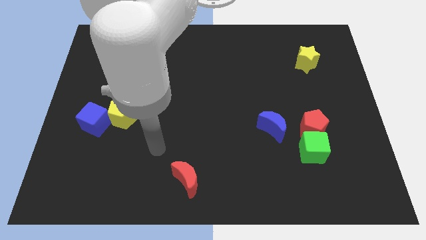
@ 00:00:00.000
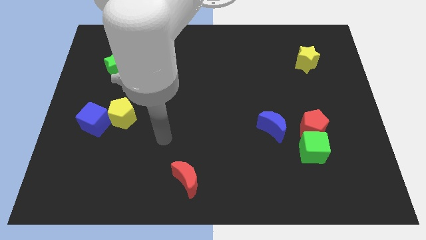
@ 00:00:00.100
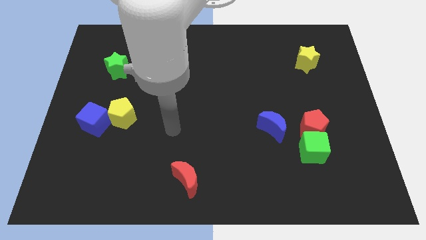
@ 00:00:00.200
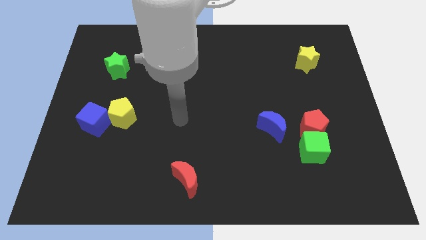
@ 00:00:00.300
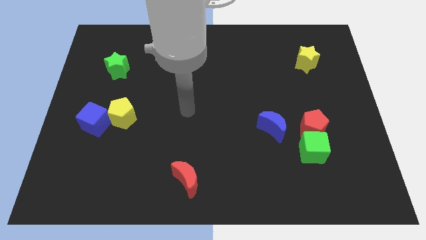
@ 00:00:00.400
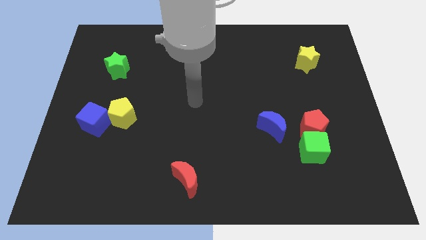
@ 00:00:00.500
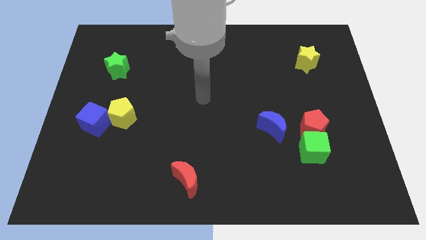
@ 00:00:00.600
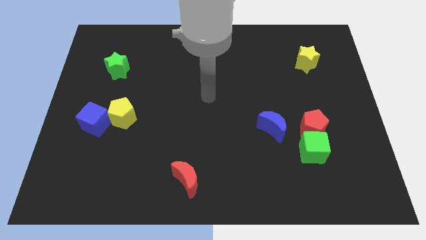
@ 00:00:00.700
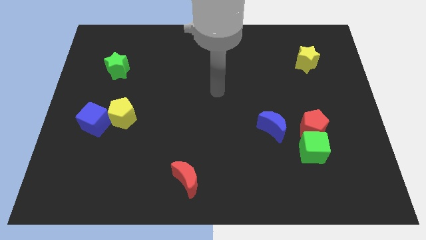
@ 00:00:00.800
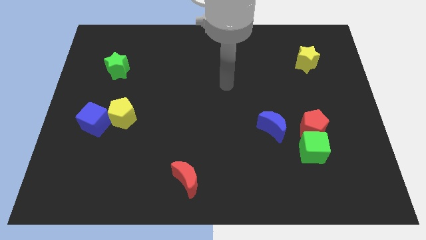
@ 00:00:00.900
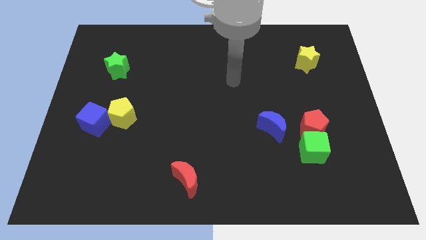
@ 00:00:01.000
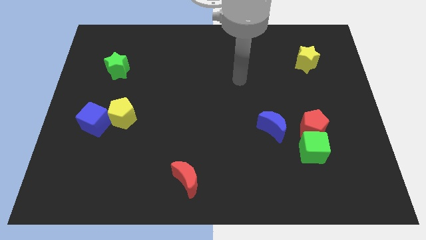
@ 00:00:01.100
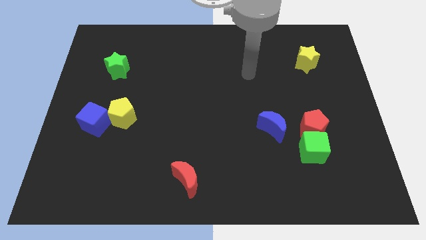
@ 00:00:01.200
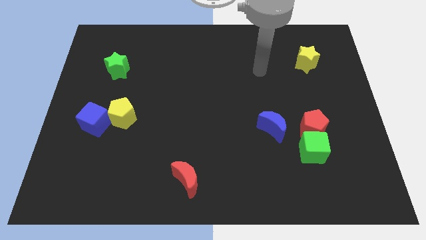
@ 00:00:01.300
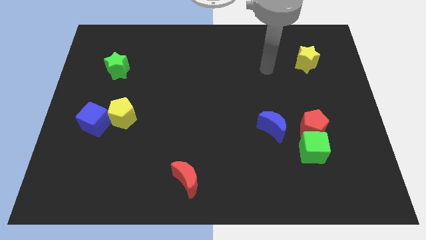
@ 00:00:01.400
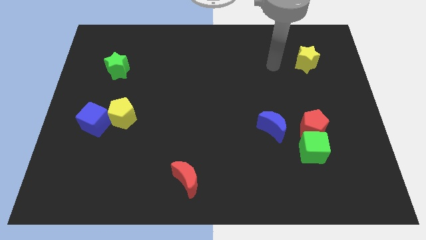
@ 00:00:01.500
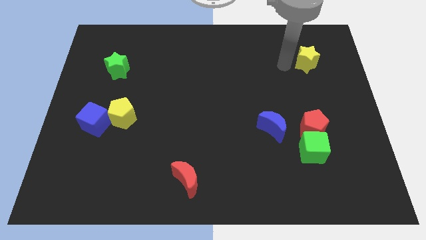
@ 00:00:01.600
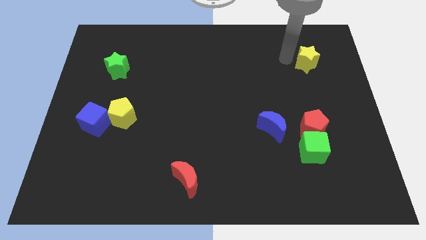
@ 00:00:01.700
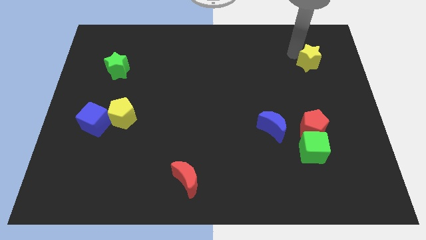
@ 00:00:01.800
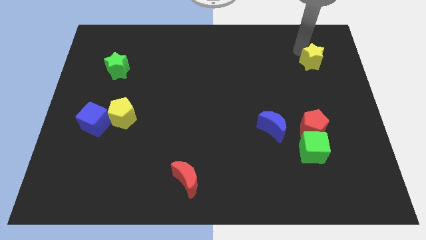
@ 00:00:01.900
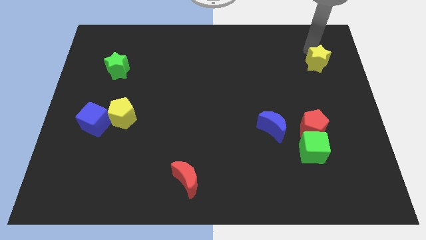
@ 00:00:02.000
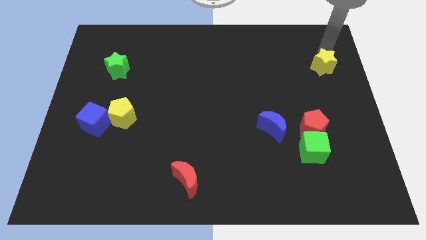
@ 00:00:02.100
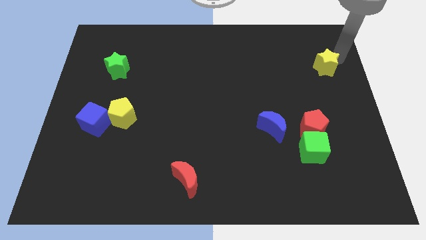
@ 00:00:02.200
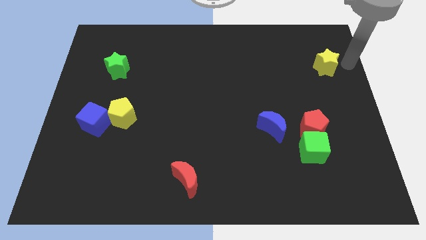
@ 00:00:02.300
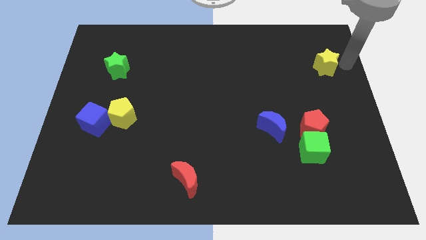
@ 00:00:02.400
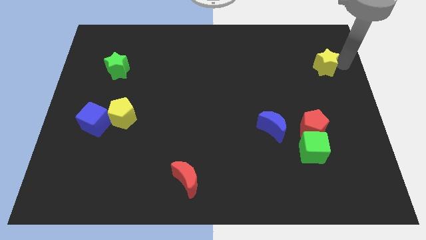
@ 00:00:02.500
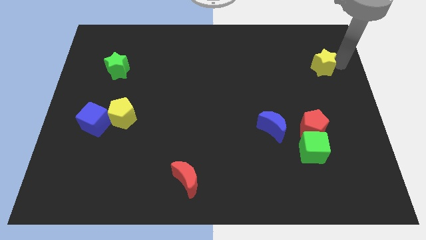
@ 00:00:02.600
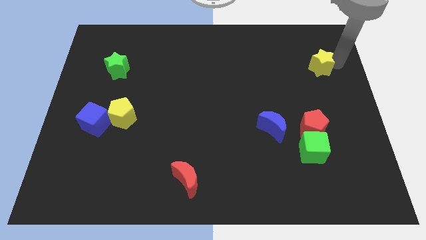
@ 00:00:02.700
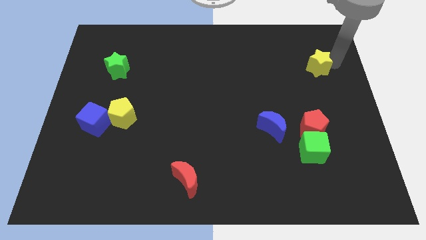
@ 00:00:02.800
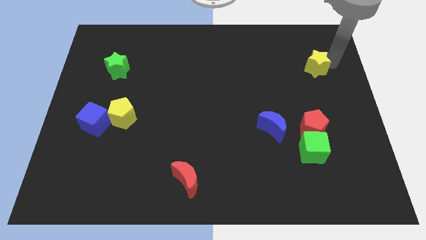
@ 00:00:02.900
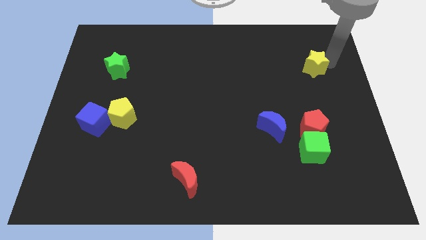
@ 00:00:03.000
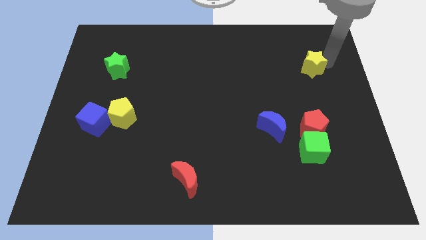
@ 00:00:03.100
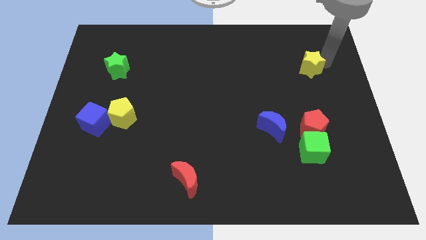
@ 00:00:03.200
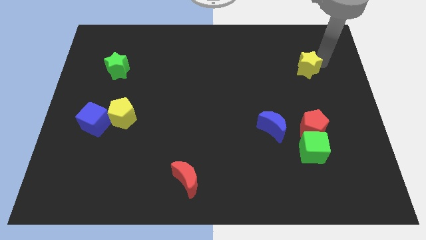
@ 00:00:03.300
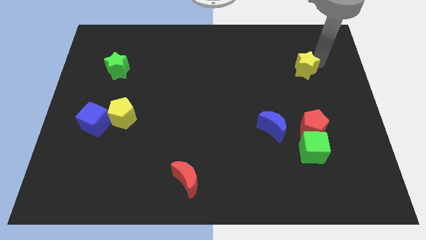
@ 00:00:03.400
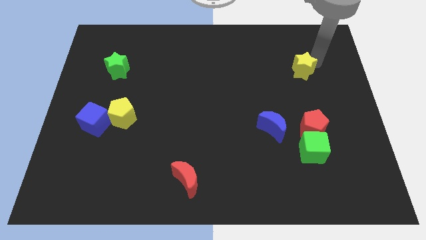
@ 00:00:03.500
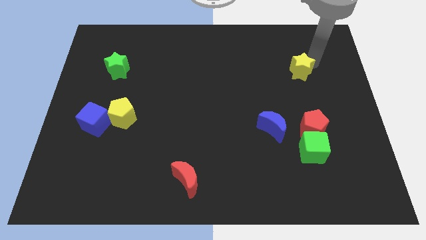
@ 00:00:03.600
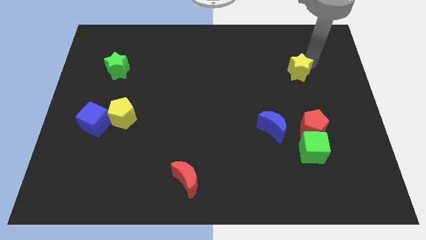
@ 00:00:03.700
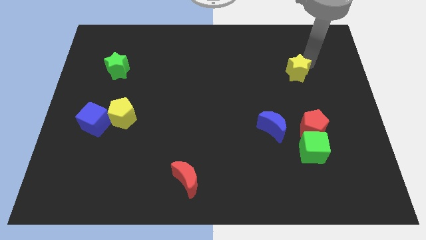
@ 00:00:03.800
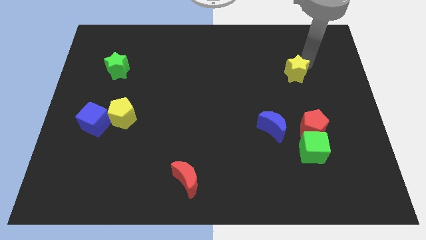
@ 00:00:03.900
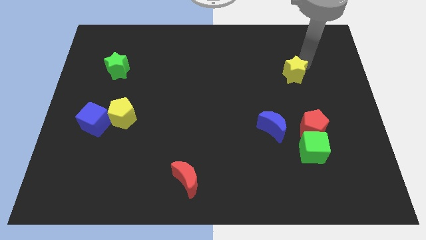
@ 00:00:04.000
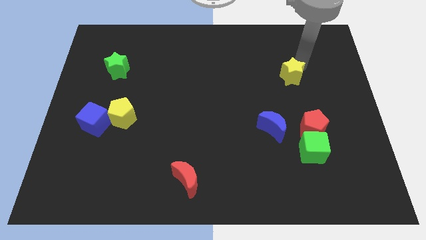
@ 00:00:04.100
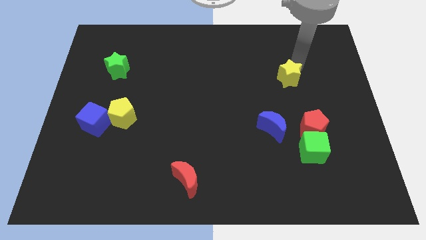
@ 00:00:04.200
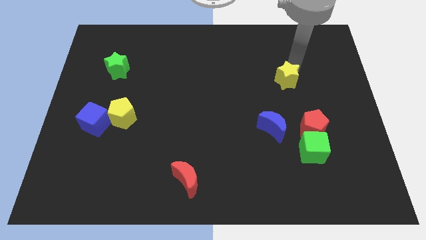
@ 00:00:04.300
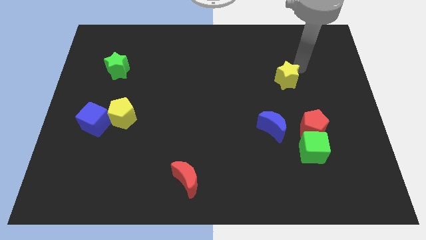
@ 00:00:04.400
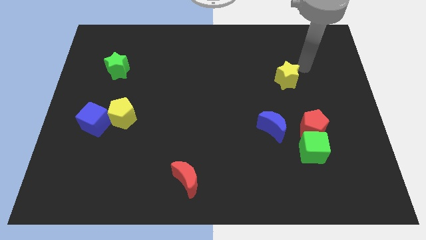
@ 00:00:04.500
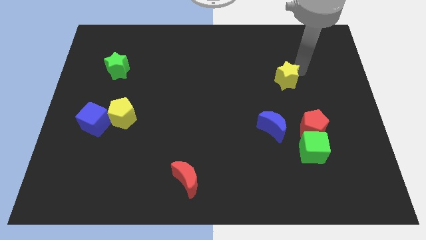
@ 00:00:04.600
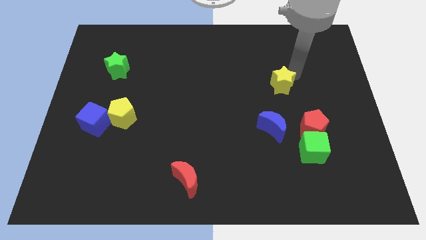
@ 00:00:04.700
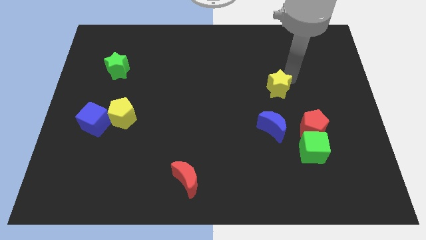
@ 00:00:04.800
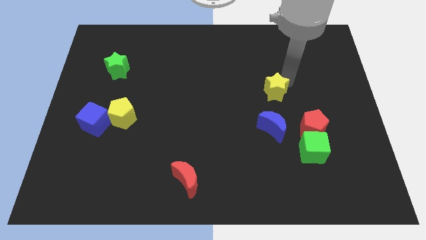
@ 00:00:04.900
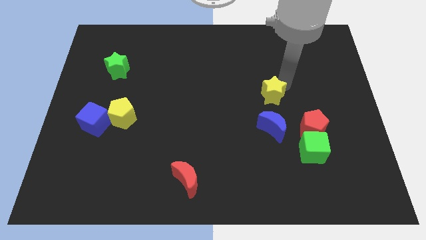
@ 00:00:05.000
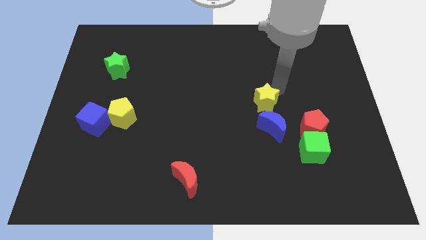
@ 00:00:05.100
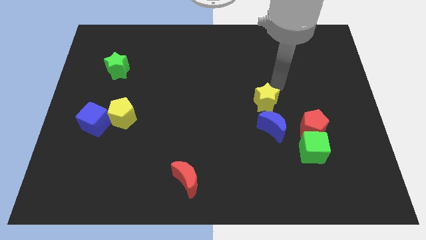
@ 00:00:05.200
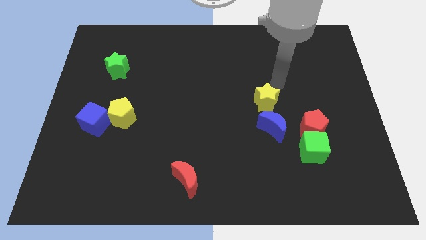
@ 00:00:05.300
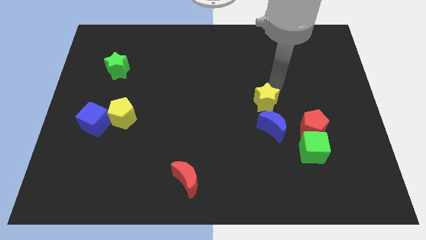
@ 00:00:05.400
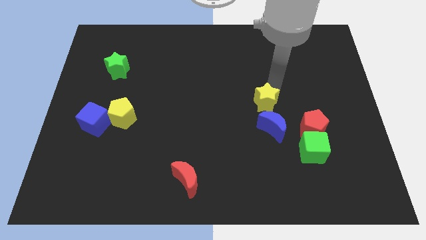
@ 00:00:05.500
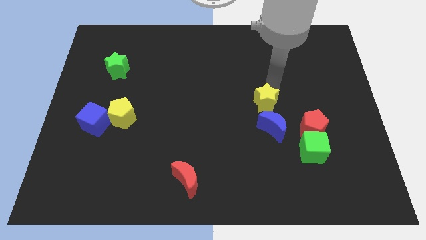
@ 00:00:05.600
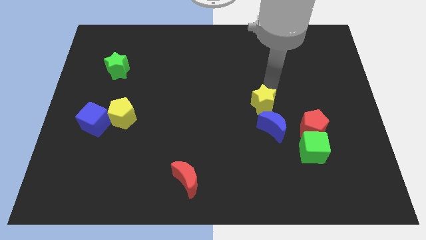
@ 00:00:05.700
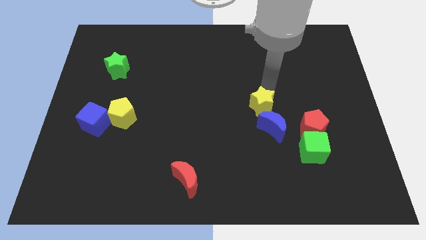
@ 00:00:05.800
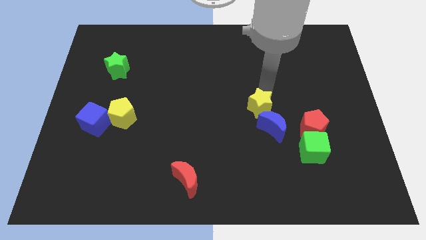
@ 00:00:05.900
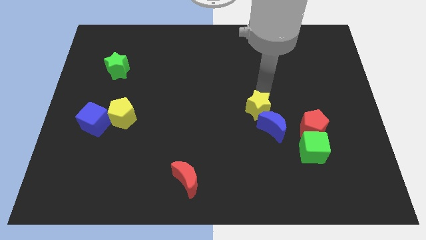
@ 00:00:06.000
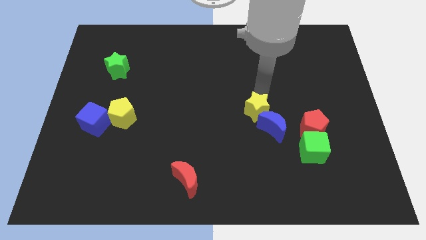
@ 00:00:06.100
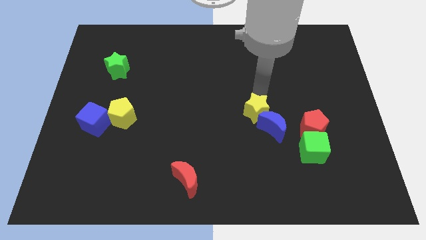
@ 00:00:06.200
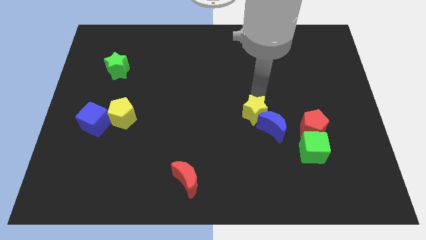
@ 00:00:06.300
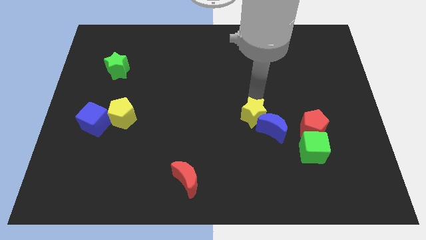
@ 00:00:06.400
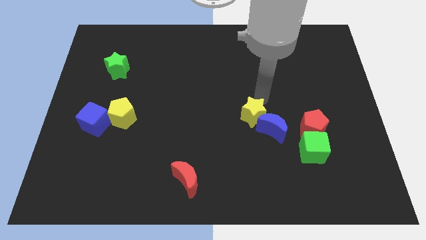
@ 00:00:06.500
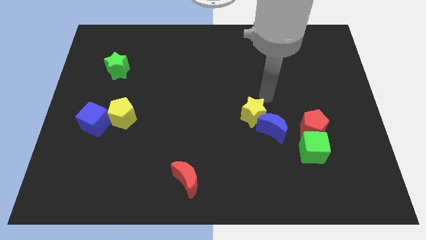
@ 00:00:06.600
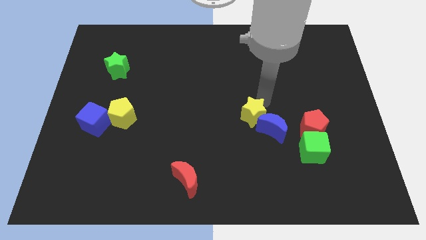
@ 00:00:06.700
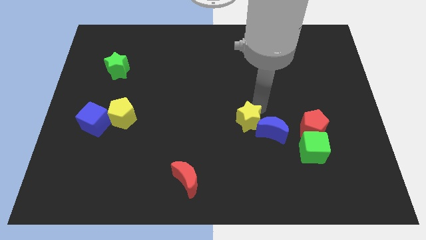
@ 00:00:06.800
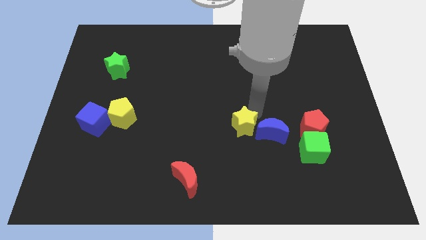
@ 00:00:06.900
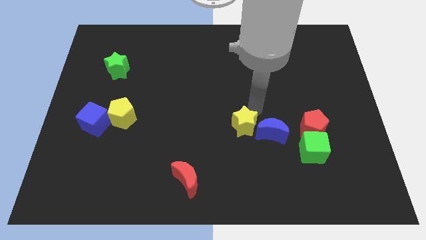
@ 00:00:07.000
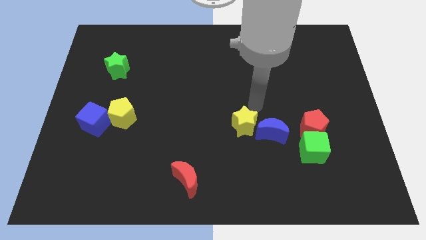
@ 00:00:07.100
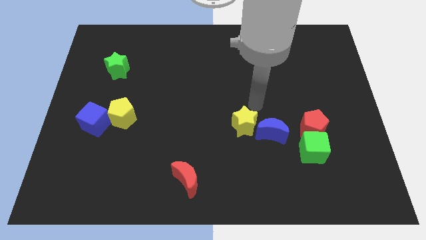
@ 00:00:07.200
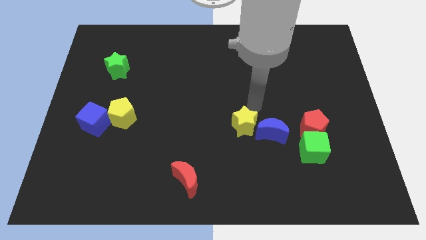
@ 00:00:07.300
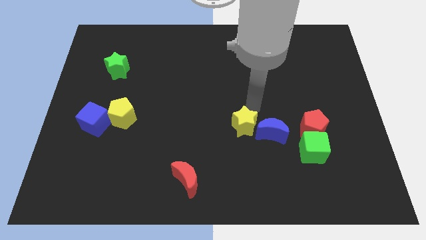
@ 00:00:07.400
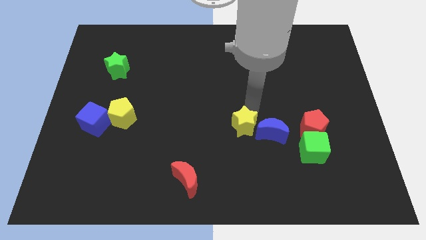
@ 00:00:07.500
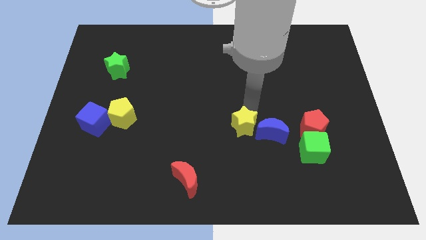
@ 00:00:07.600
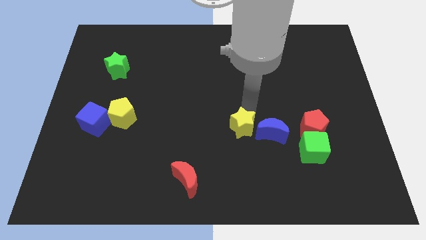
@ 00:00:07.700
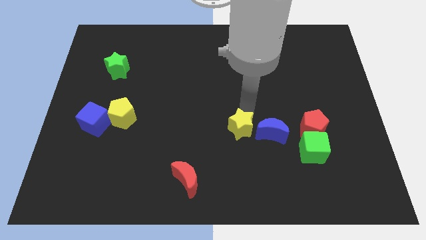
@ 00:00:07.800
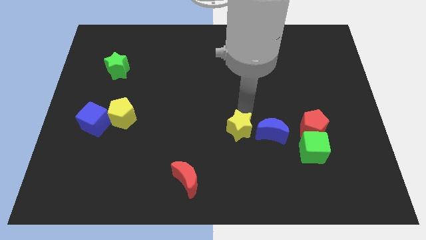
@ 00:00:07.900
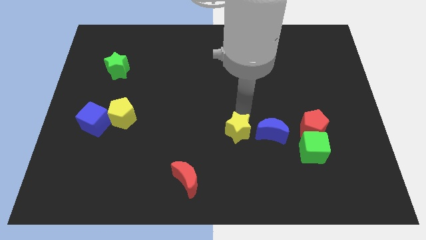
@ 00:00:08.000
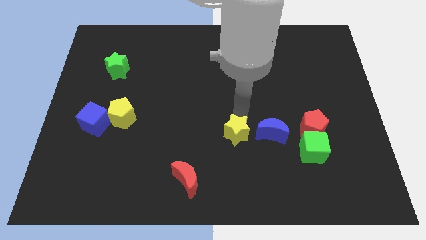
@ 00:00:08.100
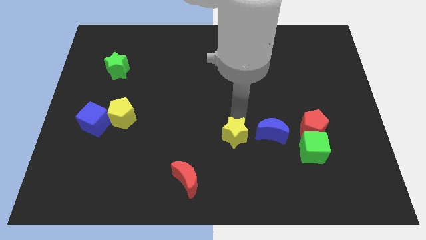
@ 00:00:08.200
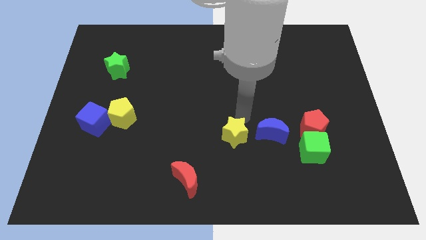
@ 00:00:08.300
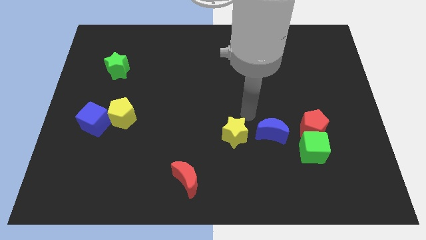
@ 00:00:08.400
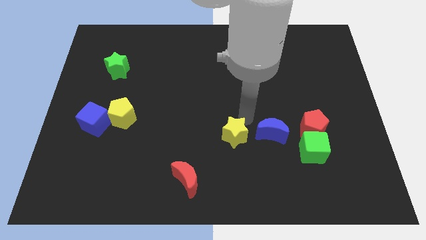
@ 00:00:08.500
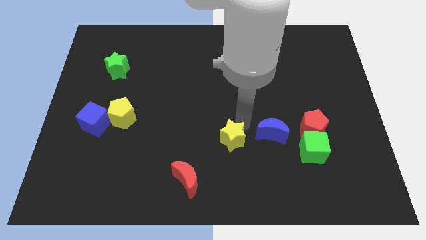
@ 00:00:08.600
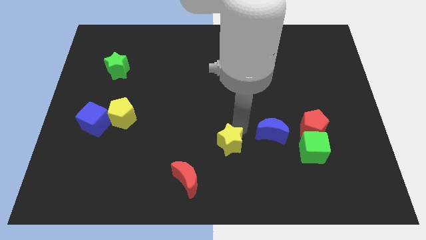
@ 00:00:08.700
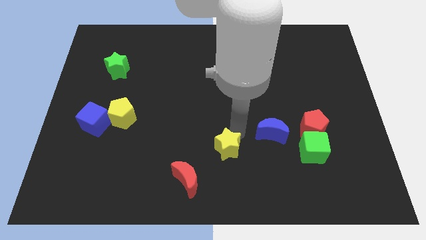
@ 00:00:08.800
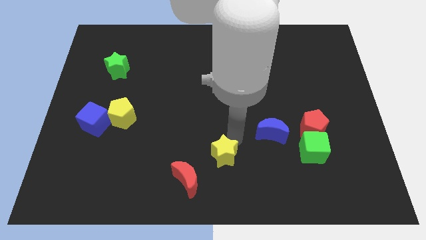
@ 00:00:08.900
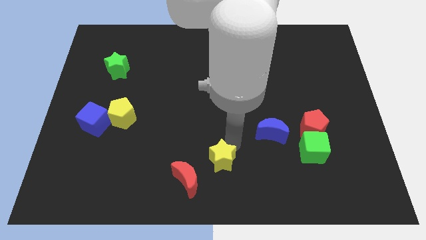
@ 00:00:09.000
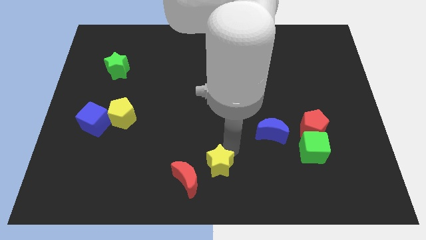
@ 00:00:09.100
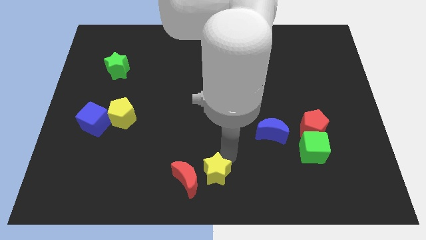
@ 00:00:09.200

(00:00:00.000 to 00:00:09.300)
move the yellow star next to the red moon
